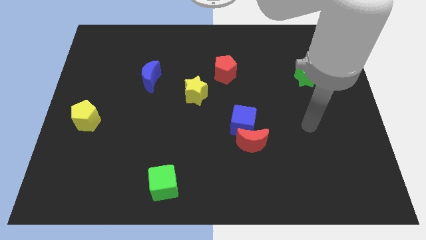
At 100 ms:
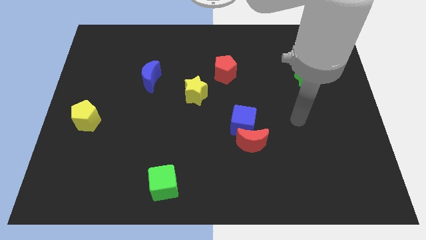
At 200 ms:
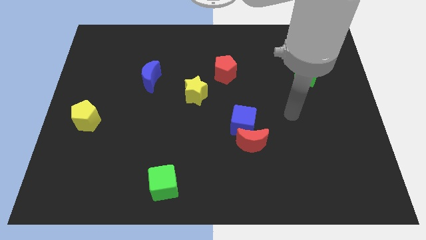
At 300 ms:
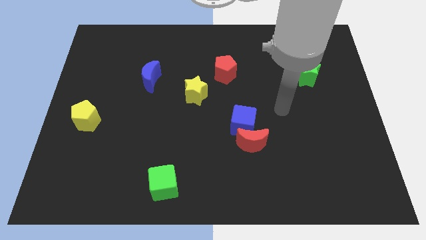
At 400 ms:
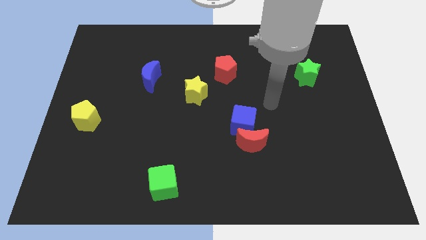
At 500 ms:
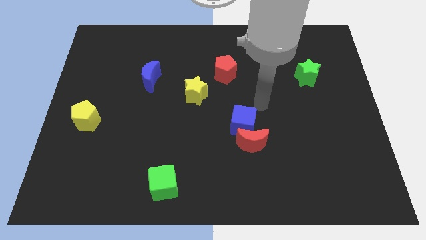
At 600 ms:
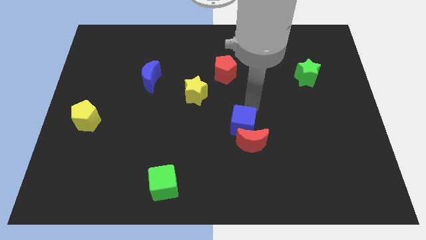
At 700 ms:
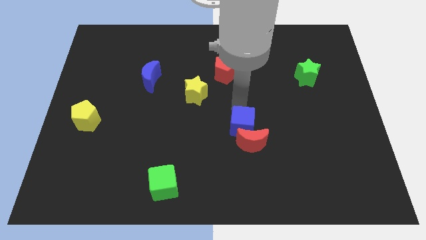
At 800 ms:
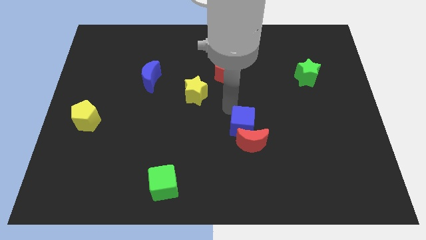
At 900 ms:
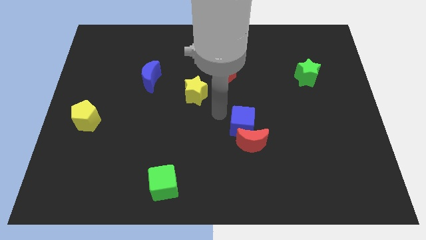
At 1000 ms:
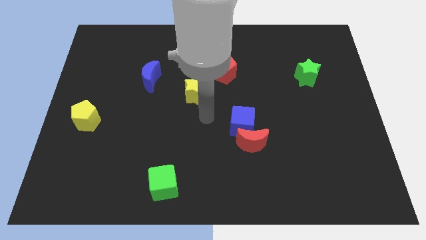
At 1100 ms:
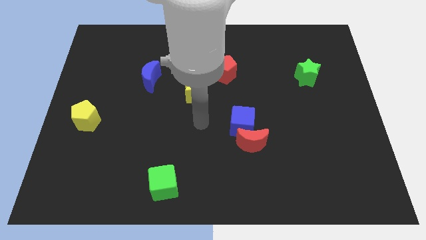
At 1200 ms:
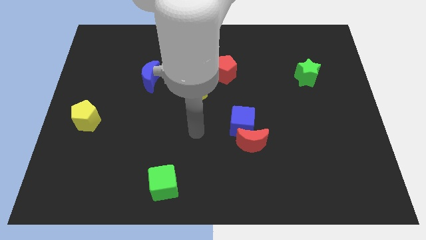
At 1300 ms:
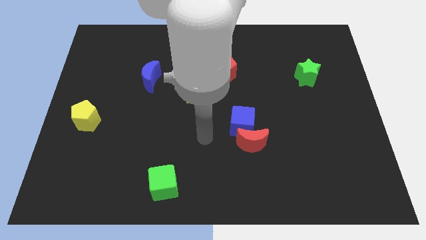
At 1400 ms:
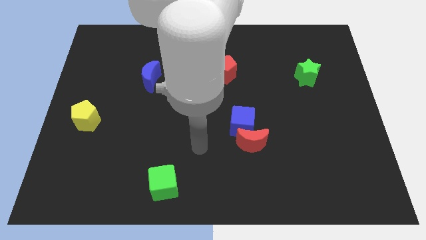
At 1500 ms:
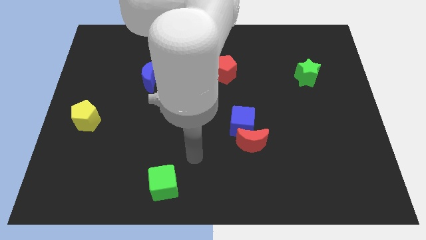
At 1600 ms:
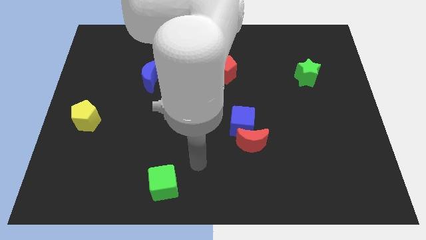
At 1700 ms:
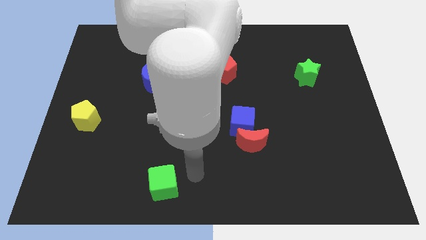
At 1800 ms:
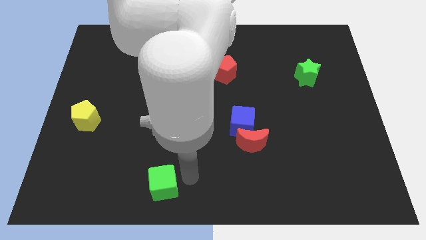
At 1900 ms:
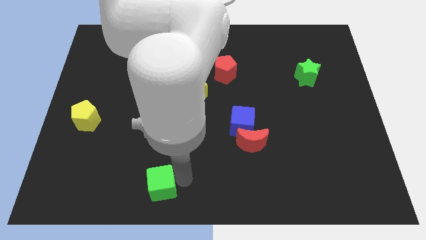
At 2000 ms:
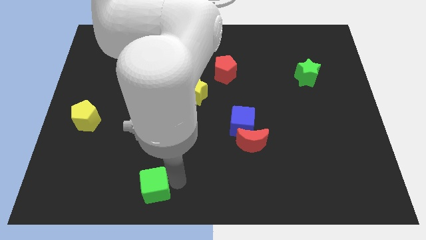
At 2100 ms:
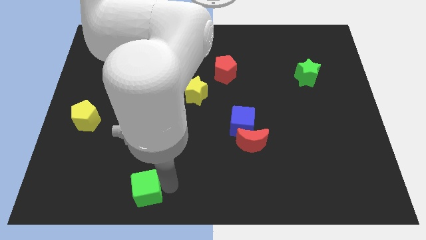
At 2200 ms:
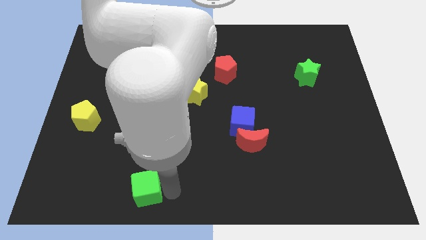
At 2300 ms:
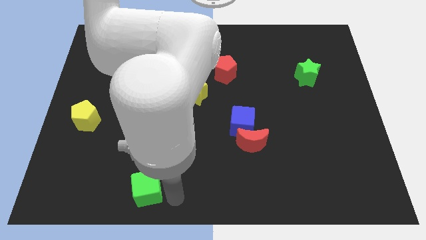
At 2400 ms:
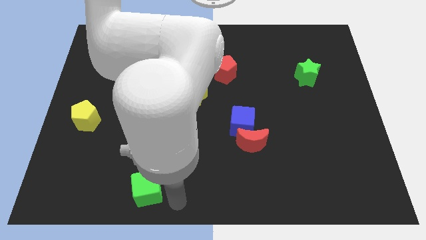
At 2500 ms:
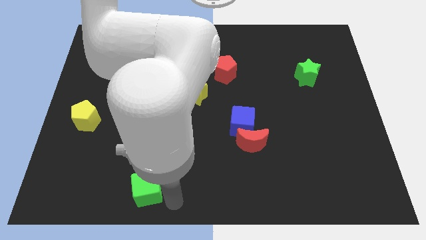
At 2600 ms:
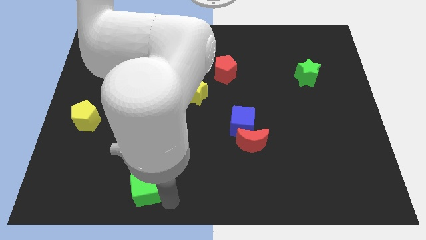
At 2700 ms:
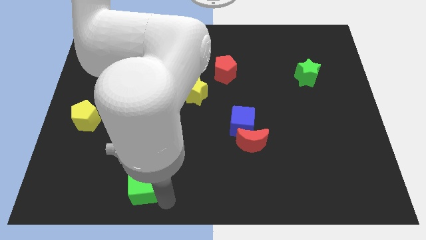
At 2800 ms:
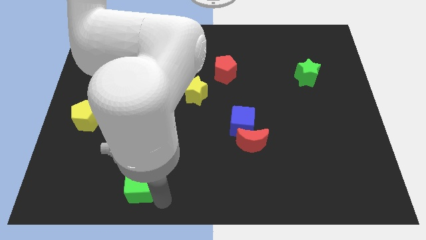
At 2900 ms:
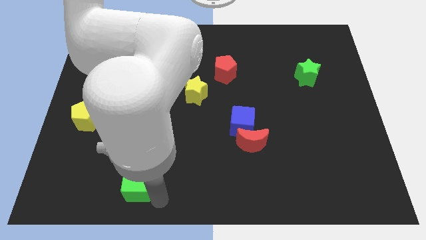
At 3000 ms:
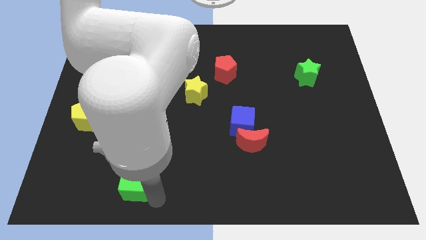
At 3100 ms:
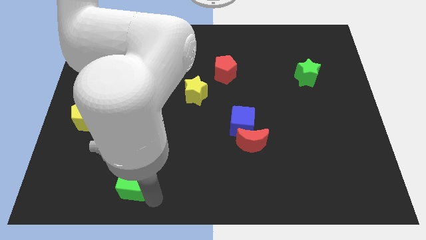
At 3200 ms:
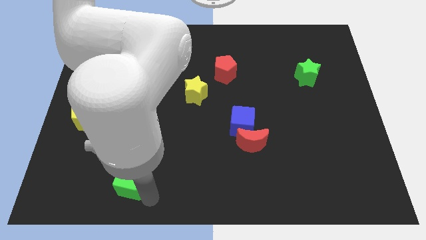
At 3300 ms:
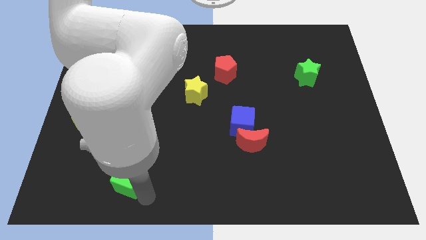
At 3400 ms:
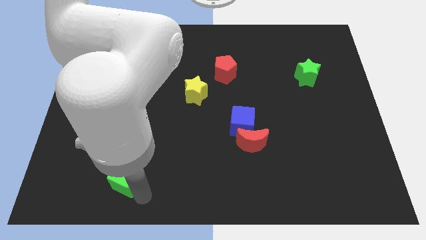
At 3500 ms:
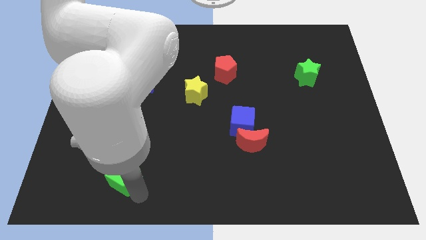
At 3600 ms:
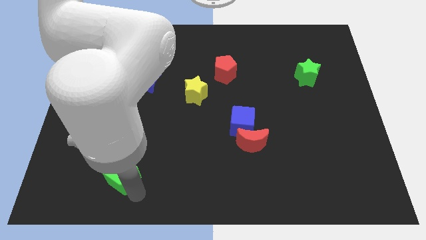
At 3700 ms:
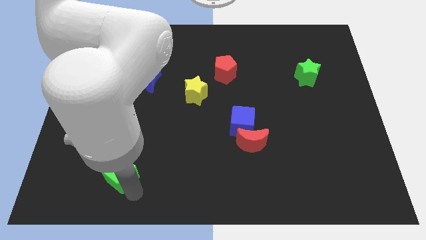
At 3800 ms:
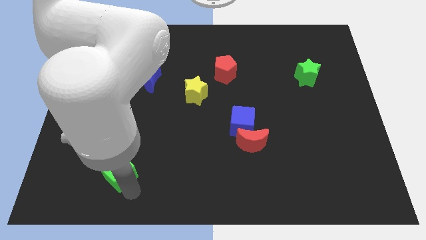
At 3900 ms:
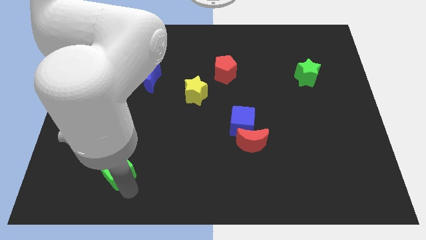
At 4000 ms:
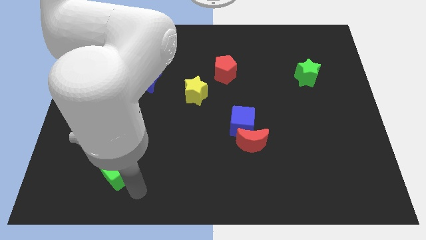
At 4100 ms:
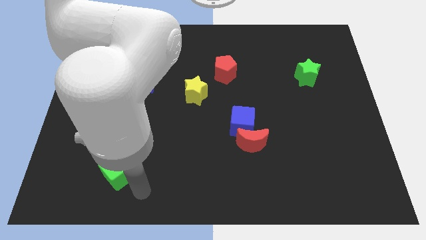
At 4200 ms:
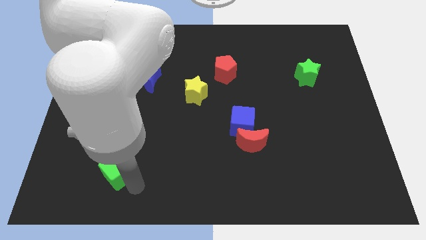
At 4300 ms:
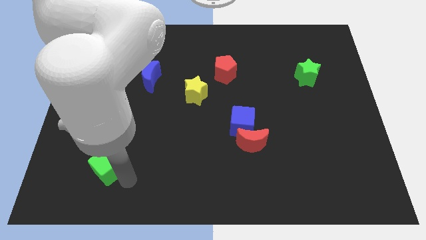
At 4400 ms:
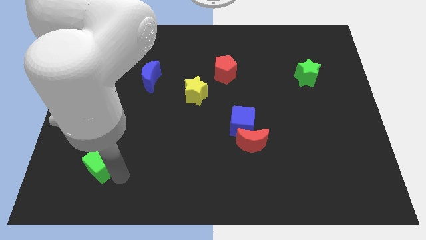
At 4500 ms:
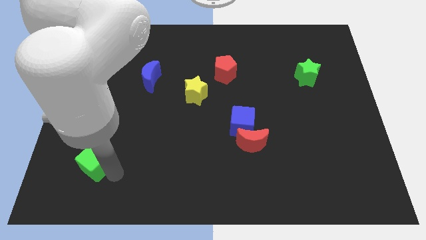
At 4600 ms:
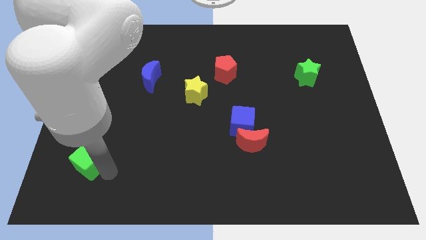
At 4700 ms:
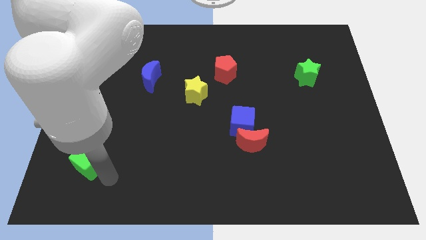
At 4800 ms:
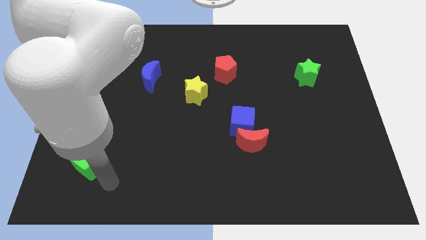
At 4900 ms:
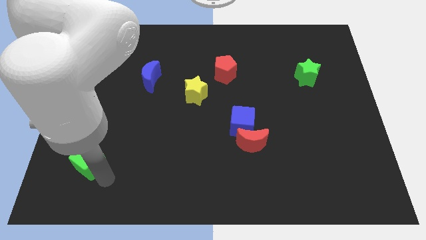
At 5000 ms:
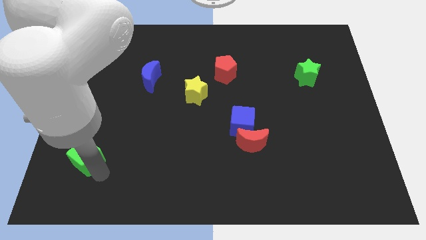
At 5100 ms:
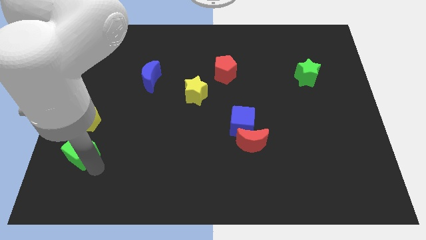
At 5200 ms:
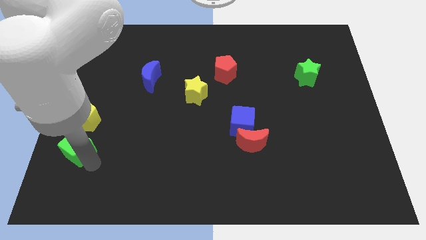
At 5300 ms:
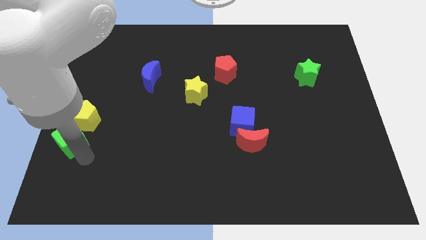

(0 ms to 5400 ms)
slide the green cube to the left side

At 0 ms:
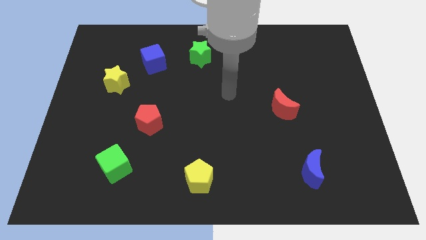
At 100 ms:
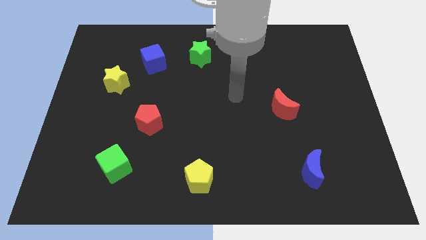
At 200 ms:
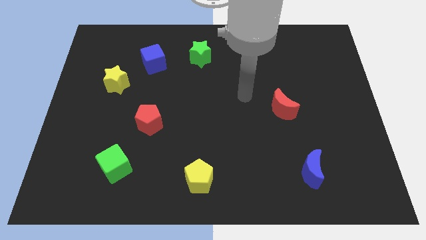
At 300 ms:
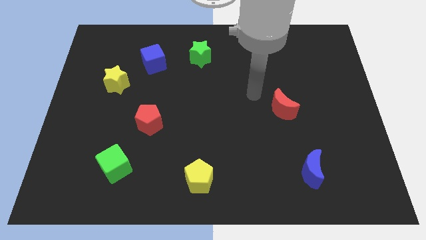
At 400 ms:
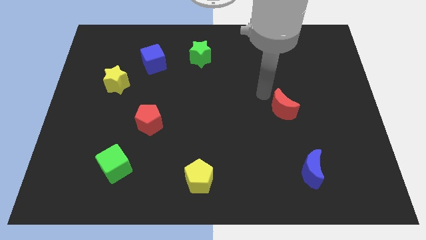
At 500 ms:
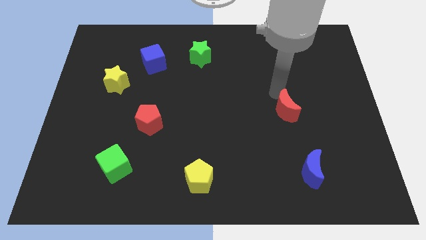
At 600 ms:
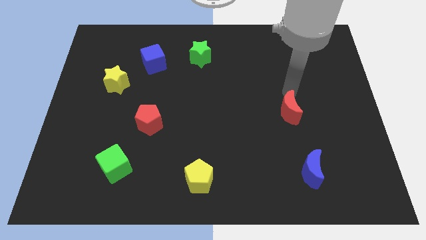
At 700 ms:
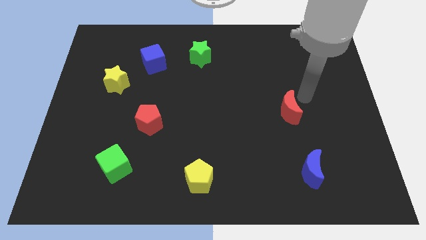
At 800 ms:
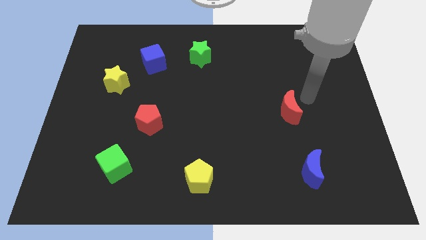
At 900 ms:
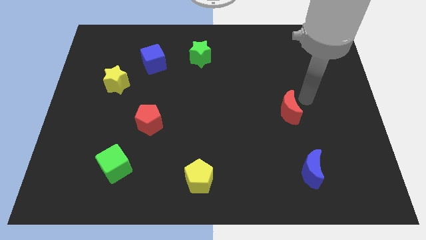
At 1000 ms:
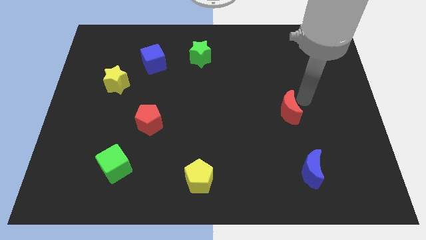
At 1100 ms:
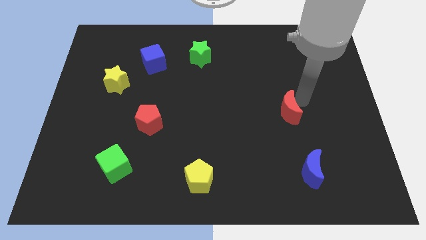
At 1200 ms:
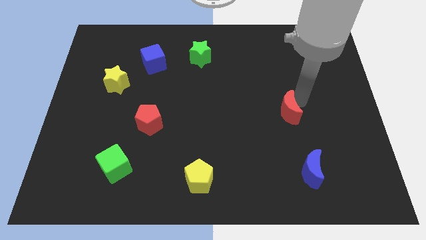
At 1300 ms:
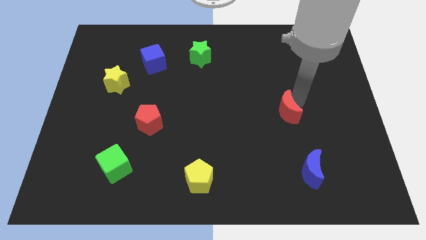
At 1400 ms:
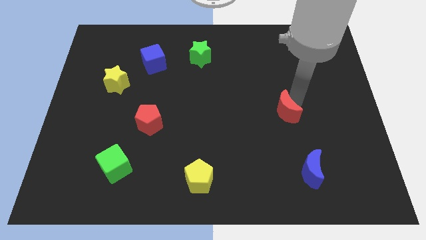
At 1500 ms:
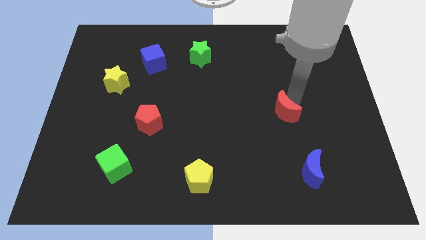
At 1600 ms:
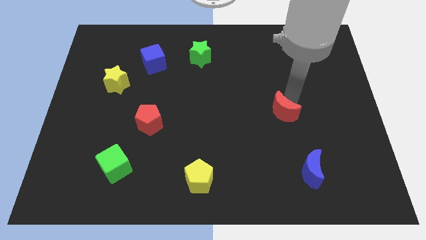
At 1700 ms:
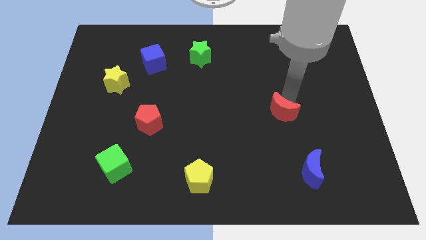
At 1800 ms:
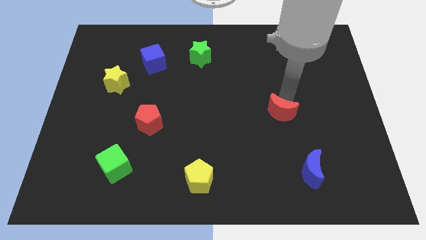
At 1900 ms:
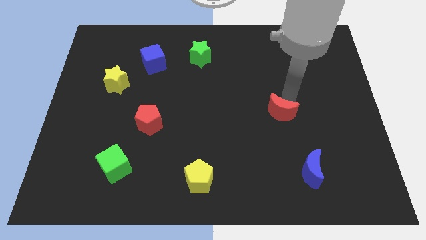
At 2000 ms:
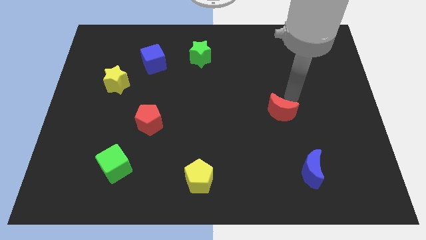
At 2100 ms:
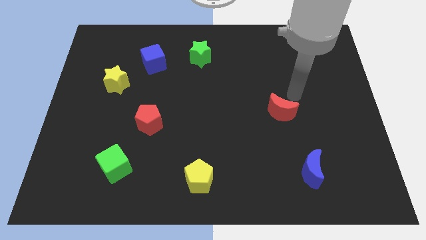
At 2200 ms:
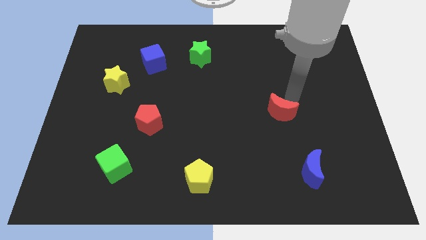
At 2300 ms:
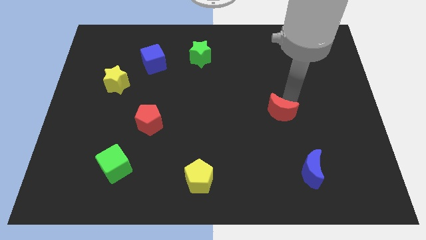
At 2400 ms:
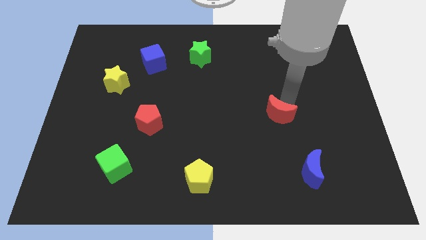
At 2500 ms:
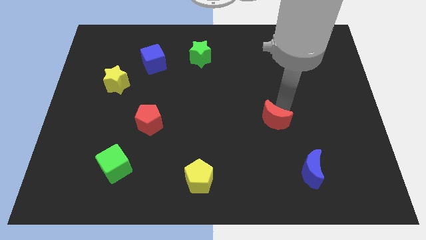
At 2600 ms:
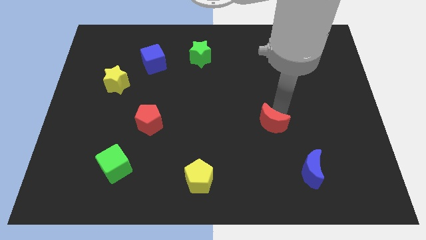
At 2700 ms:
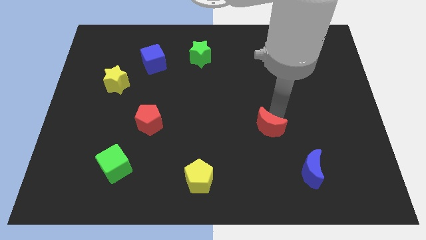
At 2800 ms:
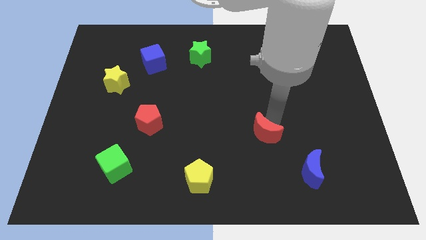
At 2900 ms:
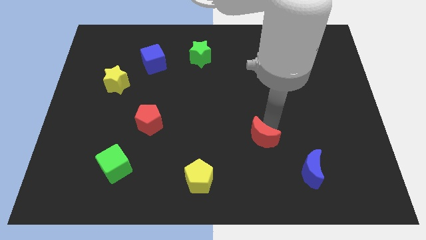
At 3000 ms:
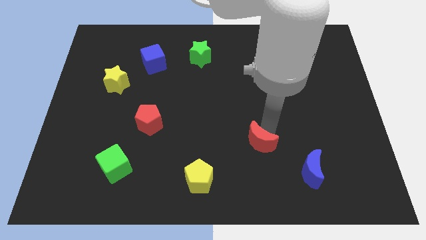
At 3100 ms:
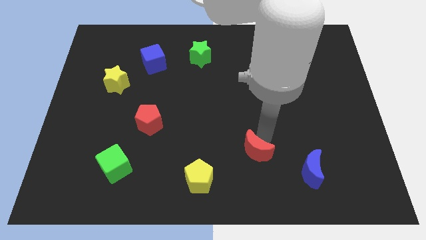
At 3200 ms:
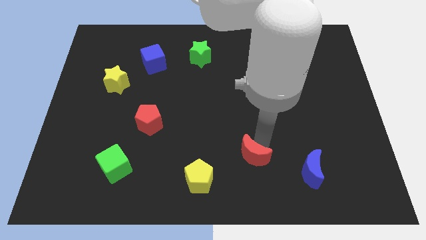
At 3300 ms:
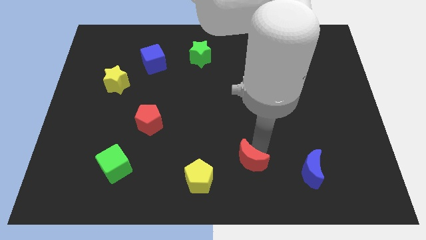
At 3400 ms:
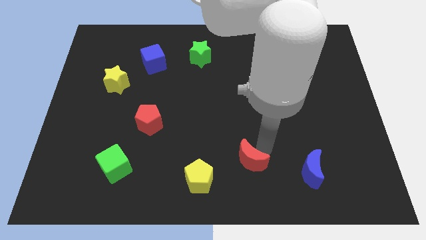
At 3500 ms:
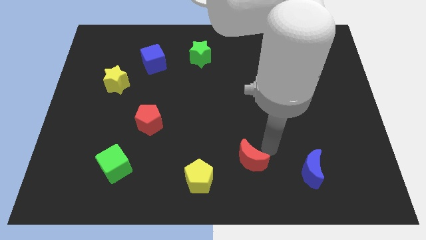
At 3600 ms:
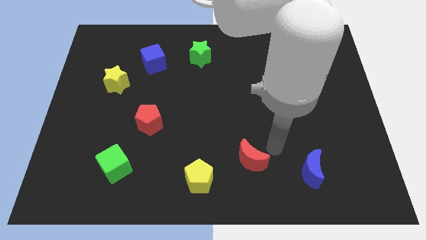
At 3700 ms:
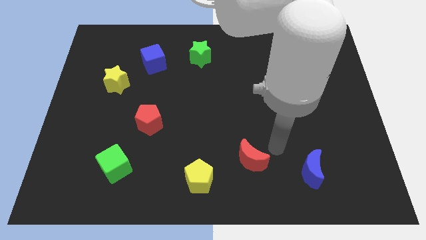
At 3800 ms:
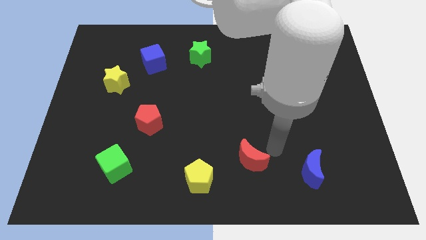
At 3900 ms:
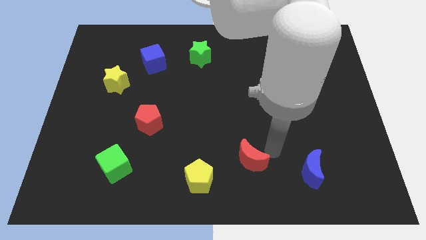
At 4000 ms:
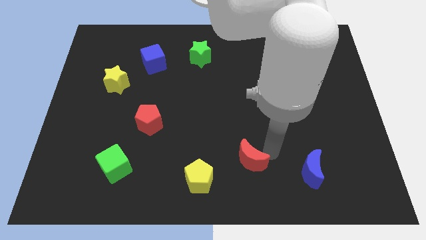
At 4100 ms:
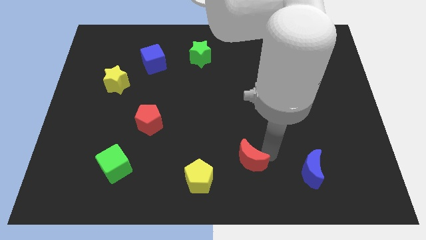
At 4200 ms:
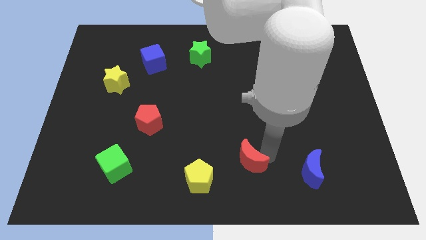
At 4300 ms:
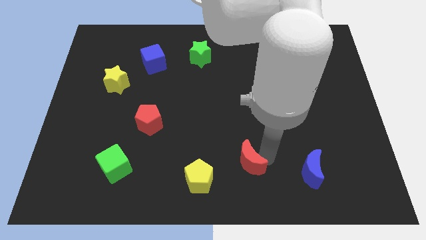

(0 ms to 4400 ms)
put the red moon to the bottom
